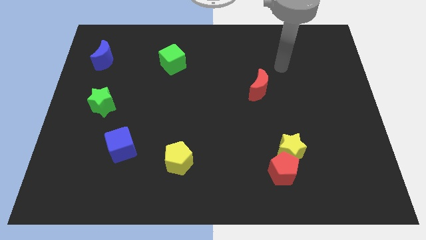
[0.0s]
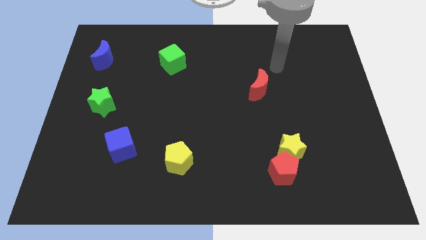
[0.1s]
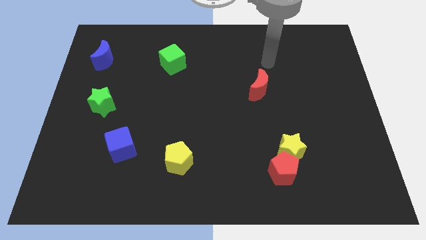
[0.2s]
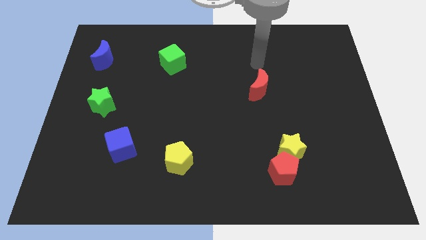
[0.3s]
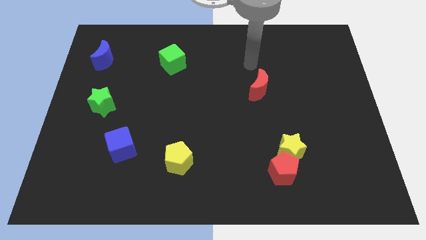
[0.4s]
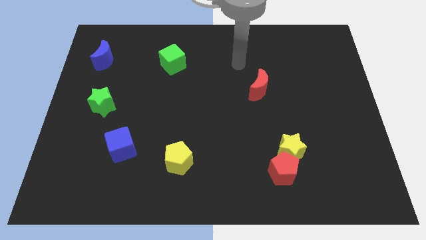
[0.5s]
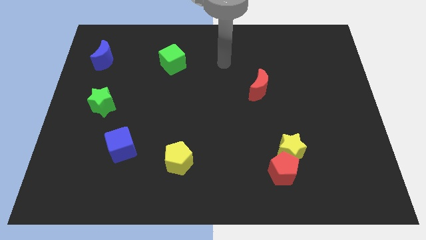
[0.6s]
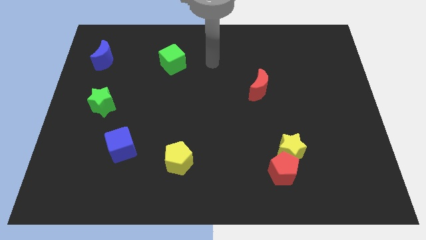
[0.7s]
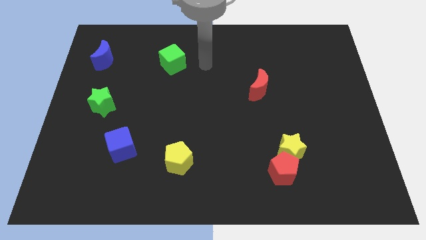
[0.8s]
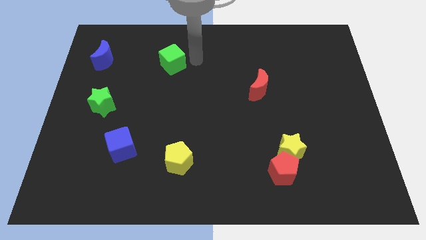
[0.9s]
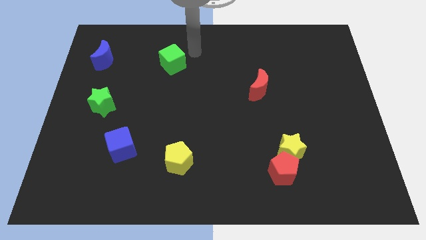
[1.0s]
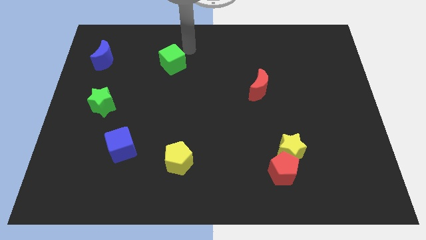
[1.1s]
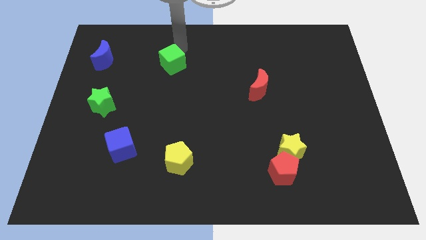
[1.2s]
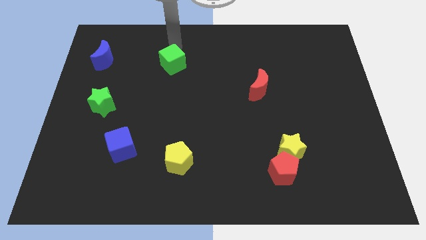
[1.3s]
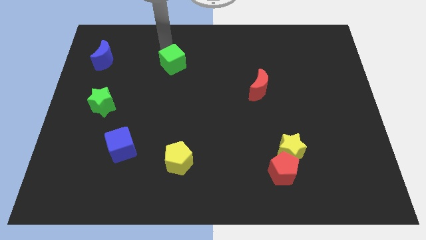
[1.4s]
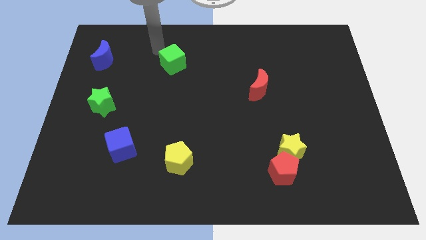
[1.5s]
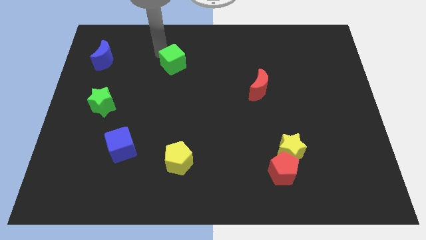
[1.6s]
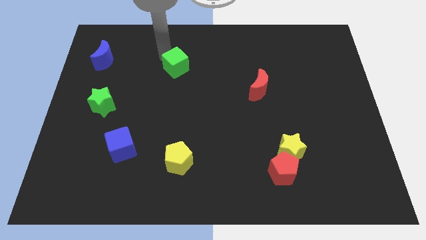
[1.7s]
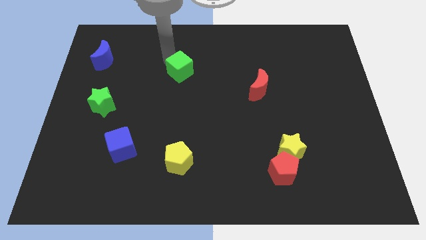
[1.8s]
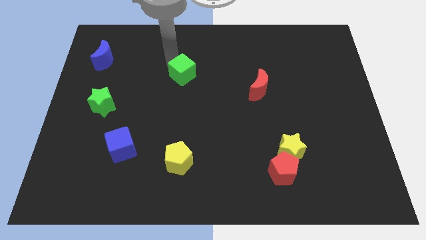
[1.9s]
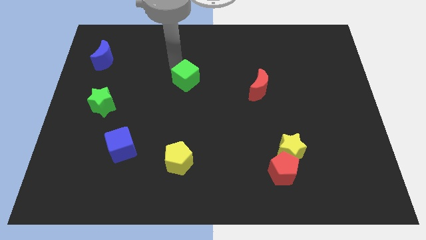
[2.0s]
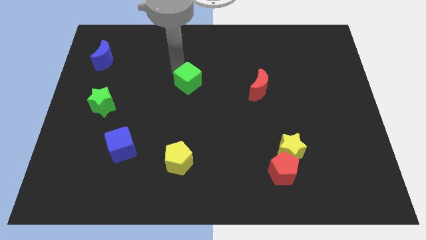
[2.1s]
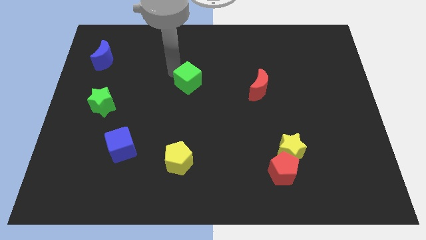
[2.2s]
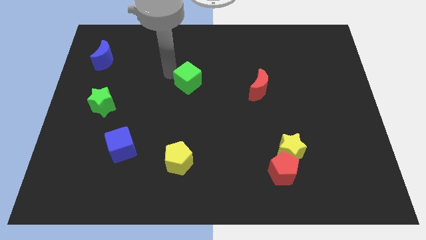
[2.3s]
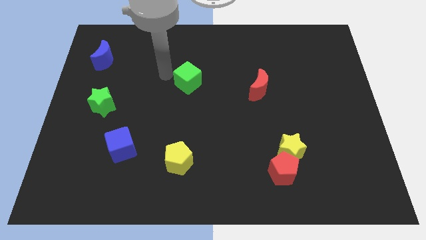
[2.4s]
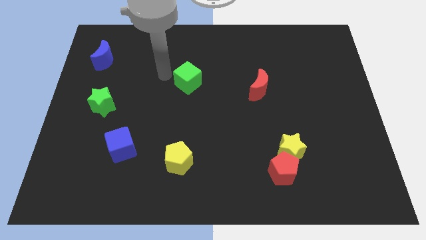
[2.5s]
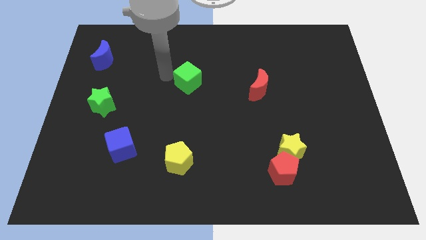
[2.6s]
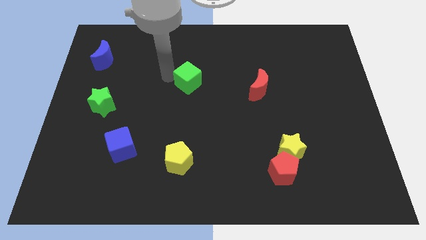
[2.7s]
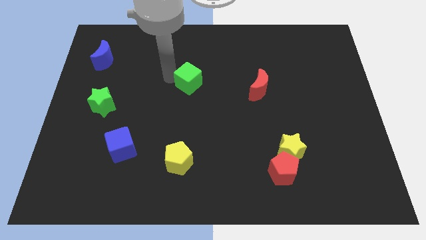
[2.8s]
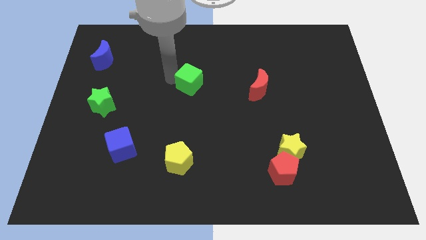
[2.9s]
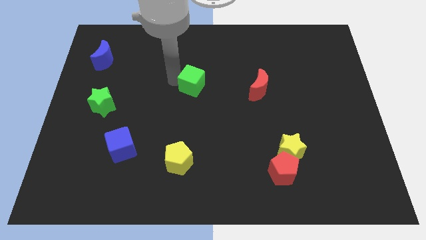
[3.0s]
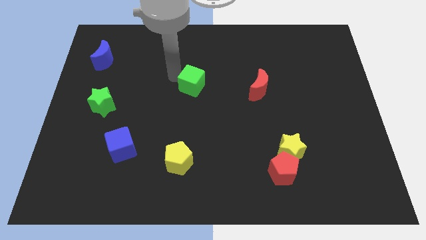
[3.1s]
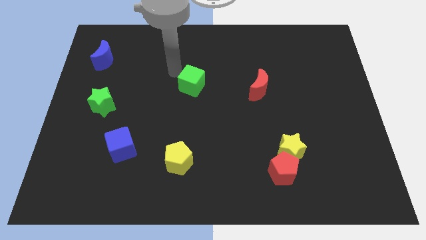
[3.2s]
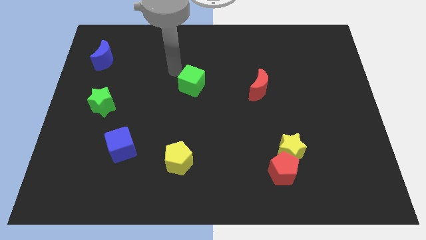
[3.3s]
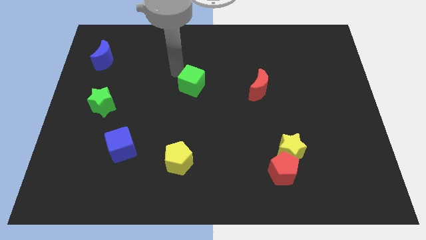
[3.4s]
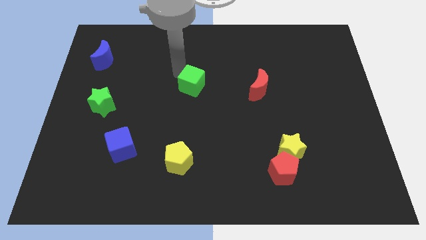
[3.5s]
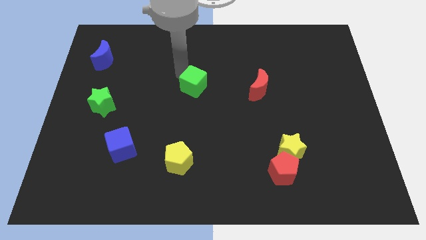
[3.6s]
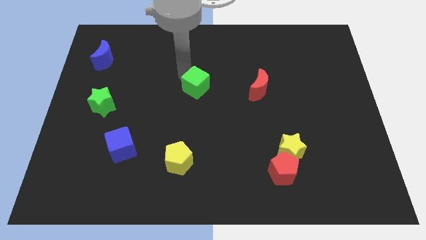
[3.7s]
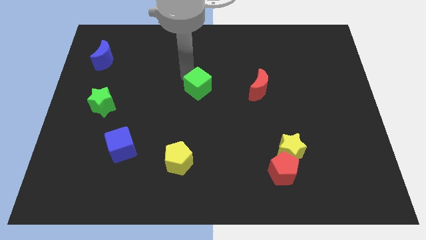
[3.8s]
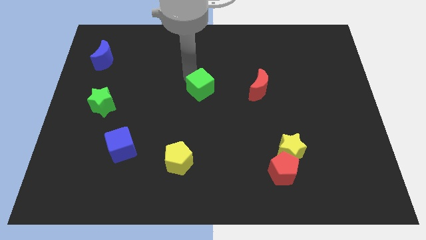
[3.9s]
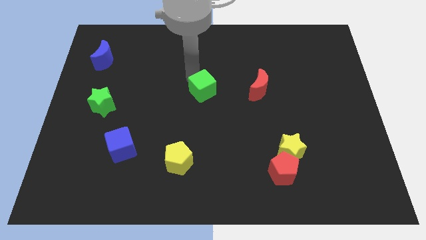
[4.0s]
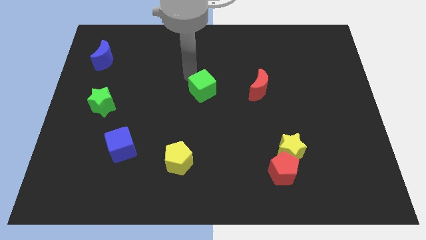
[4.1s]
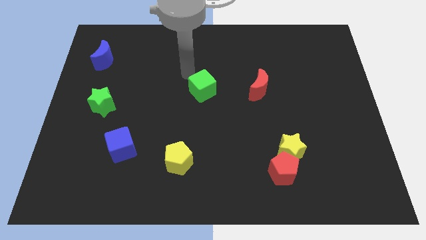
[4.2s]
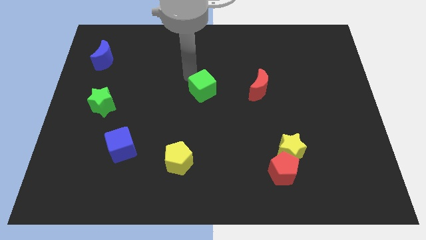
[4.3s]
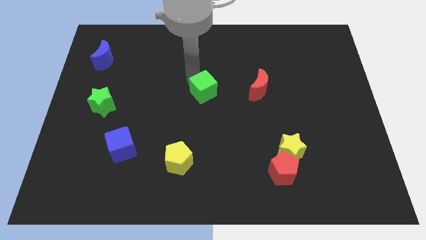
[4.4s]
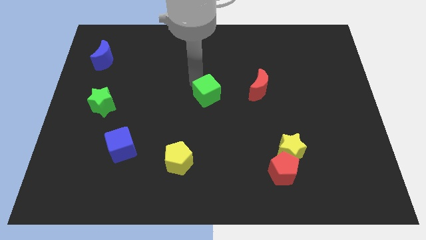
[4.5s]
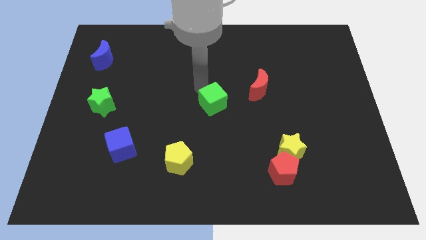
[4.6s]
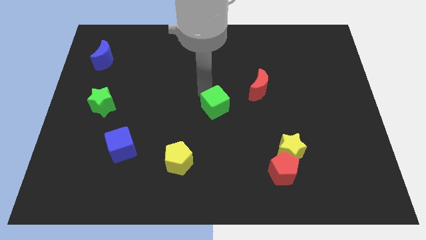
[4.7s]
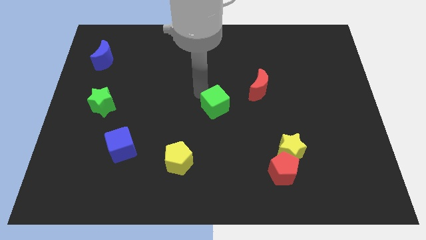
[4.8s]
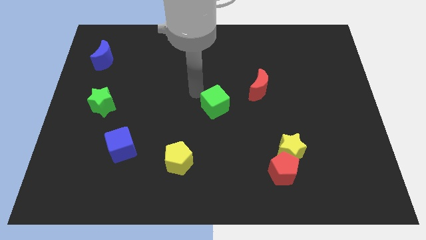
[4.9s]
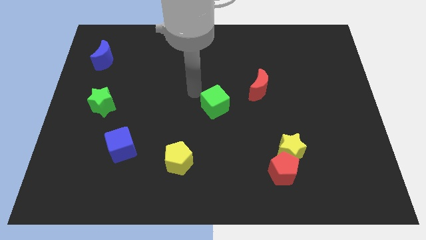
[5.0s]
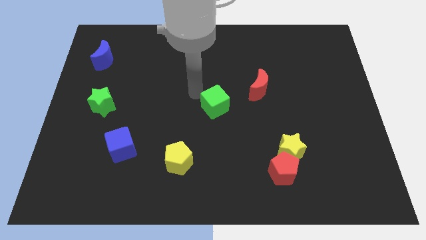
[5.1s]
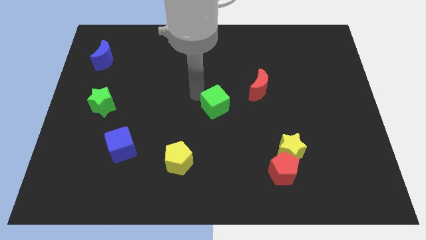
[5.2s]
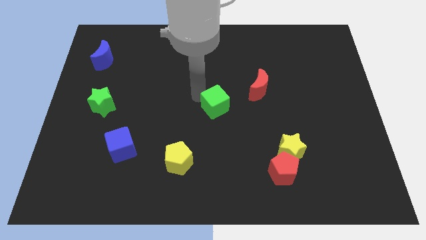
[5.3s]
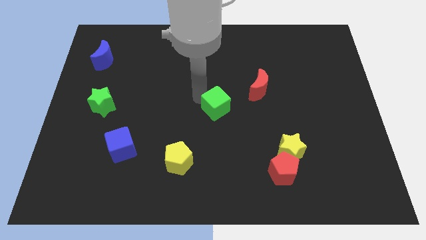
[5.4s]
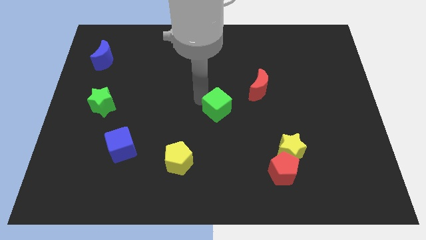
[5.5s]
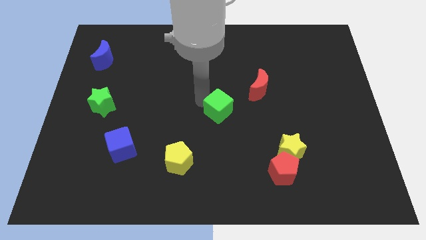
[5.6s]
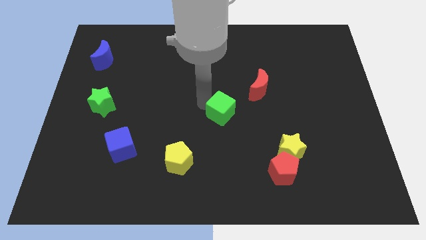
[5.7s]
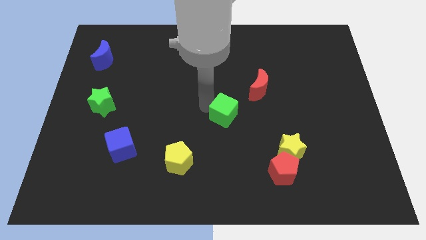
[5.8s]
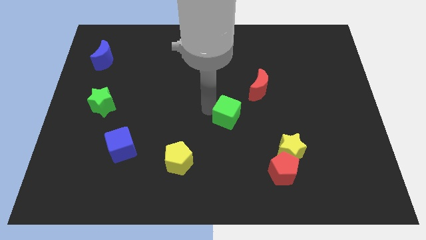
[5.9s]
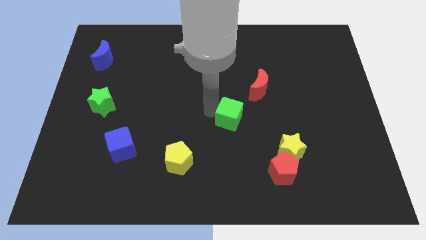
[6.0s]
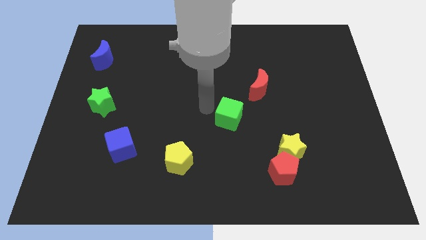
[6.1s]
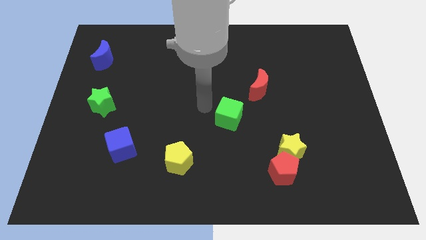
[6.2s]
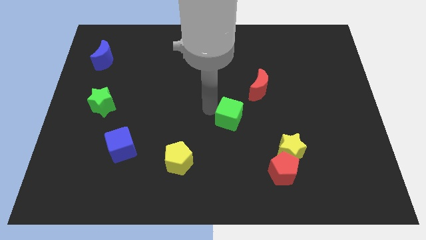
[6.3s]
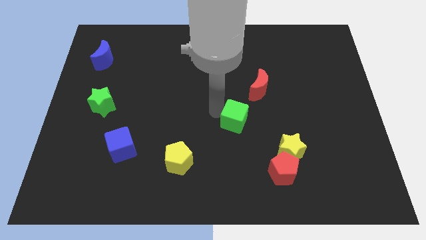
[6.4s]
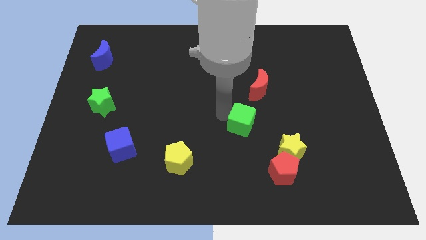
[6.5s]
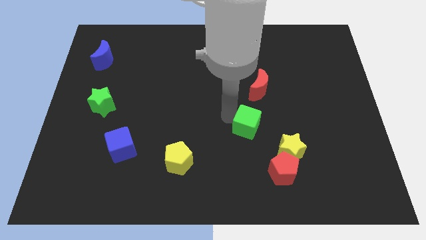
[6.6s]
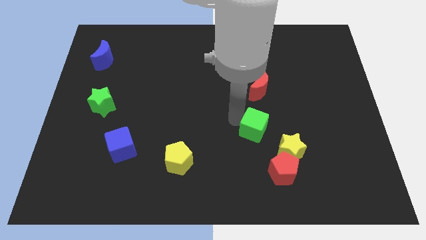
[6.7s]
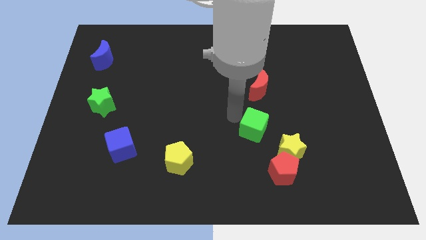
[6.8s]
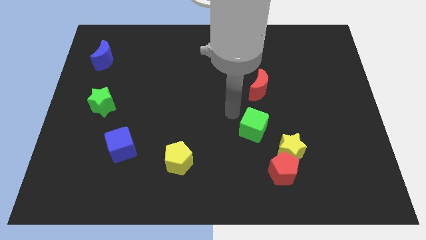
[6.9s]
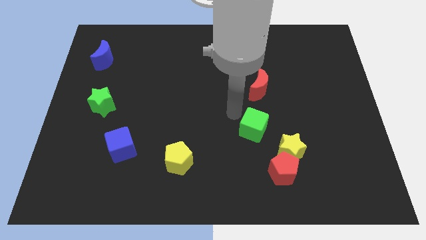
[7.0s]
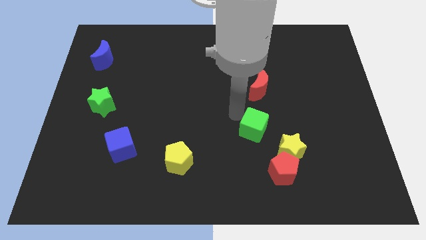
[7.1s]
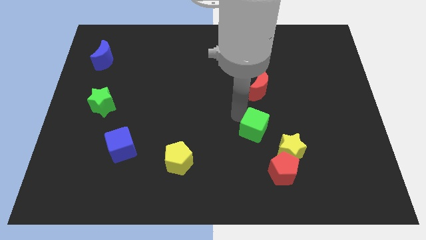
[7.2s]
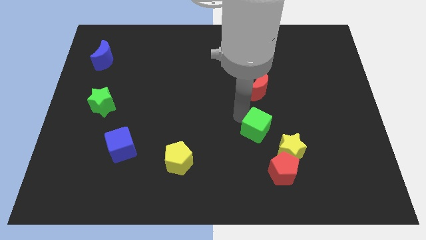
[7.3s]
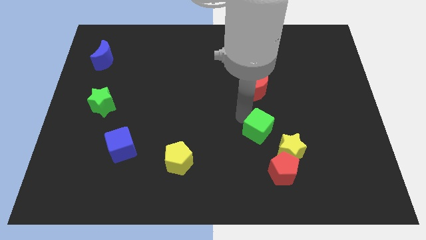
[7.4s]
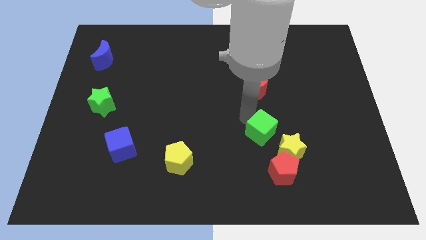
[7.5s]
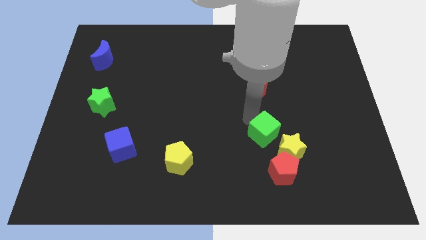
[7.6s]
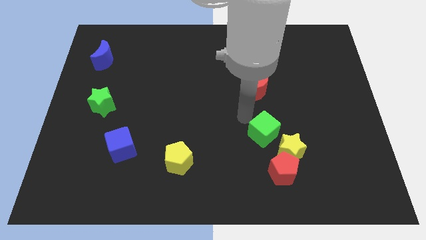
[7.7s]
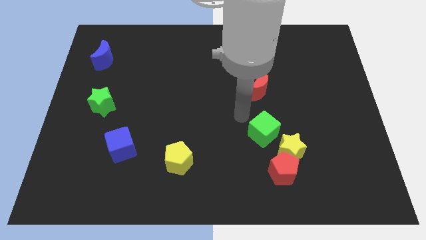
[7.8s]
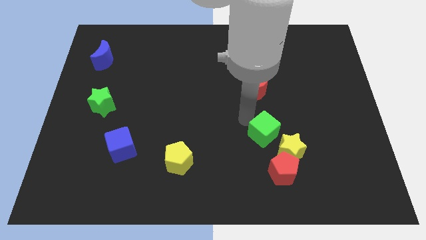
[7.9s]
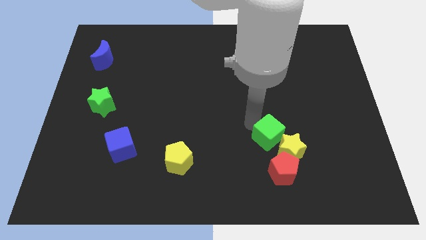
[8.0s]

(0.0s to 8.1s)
put the green cube towards the yellow star
